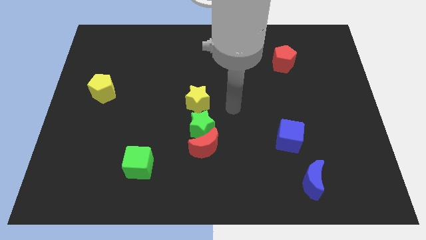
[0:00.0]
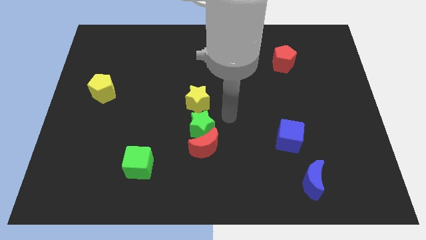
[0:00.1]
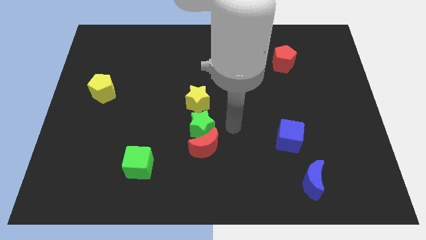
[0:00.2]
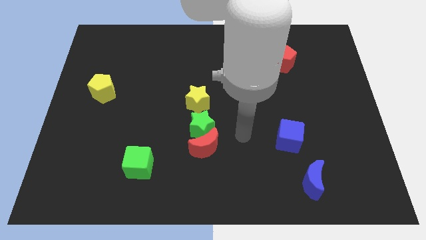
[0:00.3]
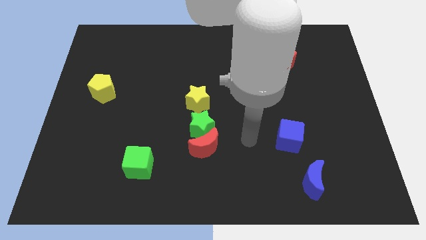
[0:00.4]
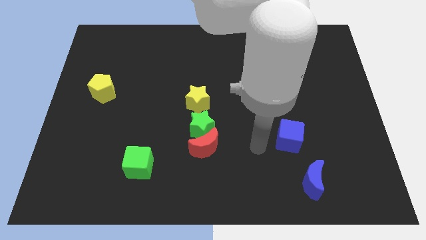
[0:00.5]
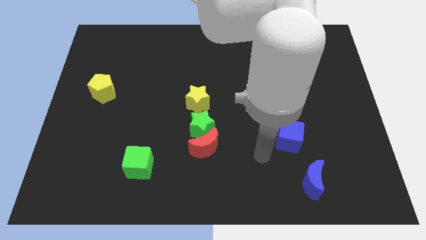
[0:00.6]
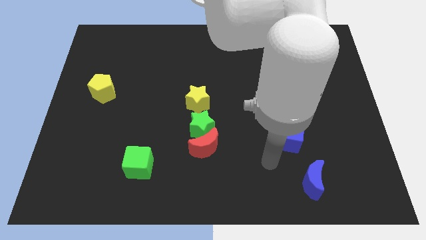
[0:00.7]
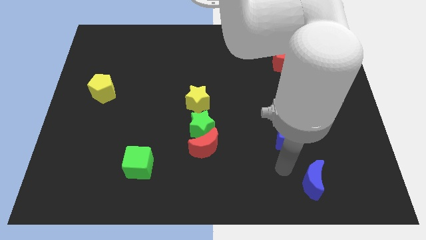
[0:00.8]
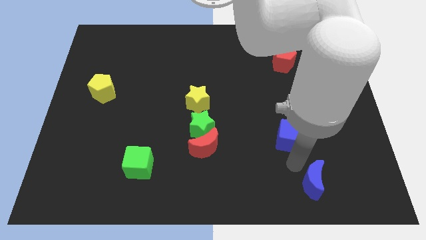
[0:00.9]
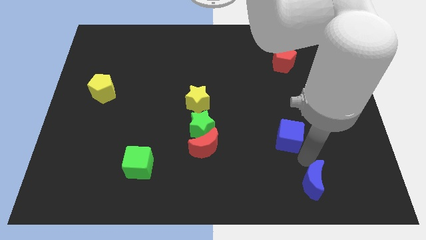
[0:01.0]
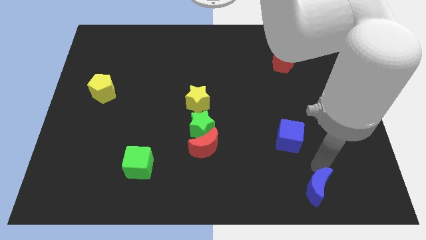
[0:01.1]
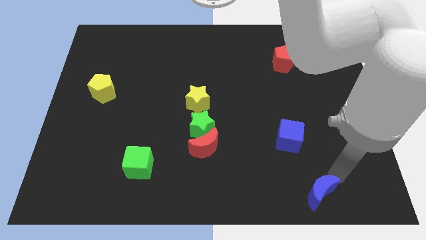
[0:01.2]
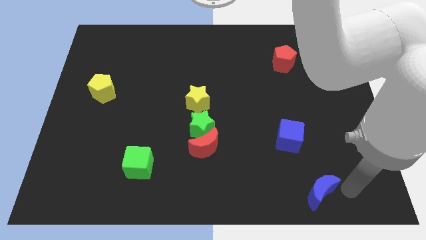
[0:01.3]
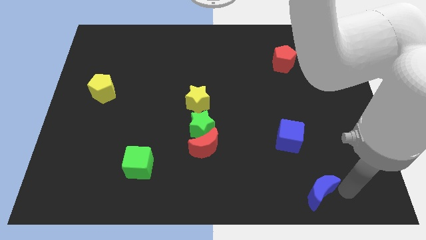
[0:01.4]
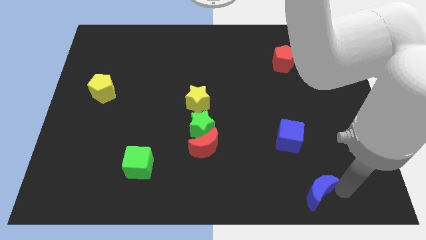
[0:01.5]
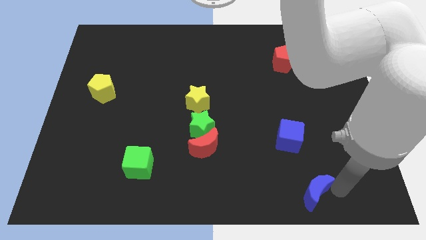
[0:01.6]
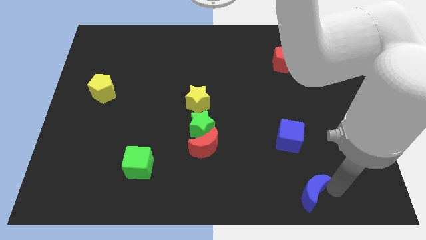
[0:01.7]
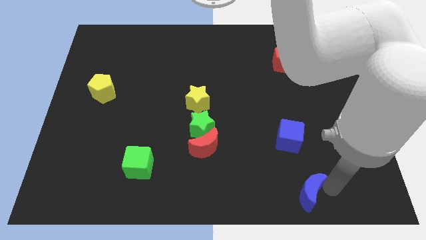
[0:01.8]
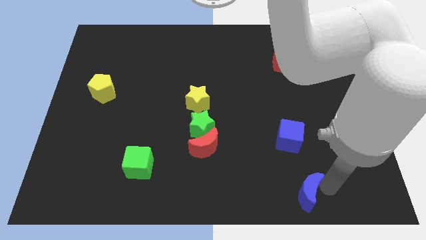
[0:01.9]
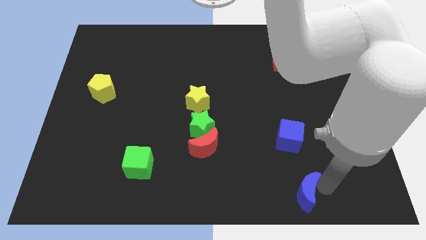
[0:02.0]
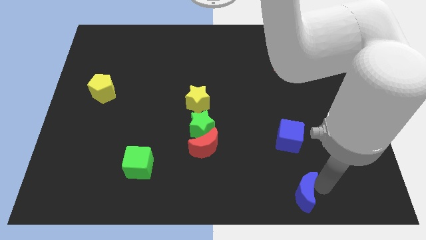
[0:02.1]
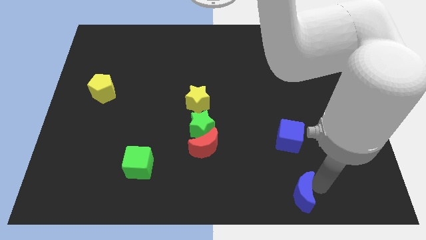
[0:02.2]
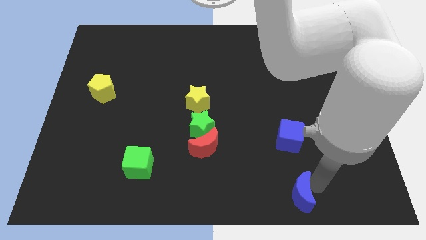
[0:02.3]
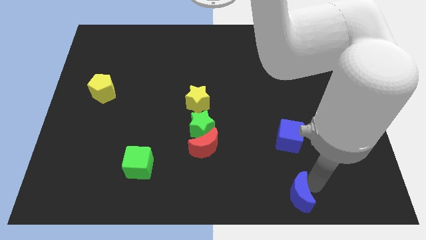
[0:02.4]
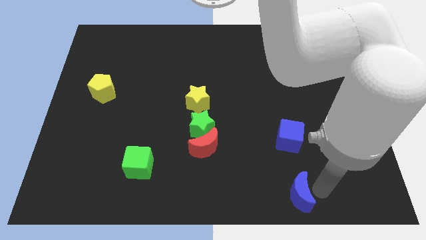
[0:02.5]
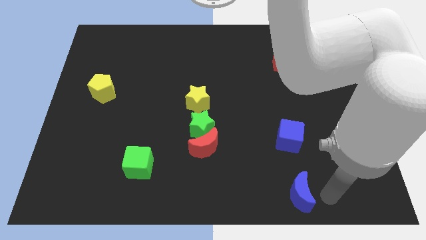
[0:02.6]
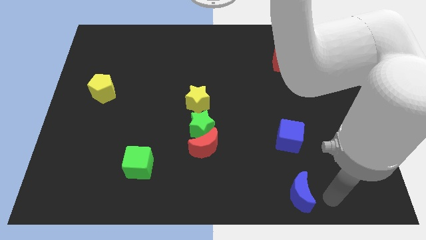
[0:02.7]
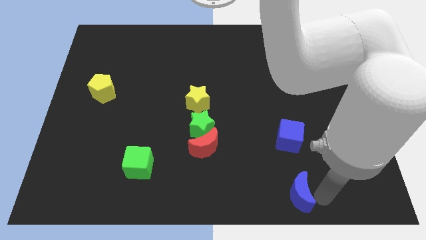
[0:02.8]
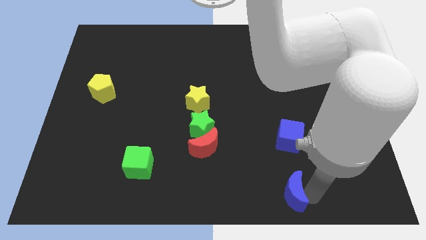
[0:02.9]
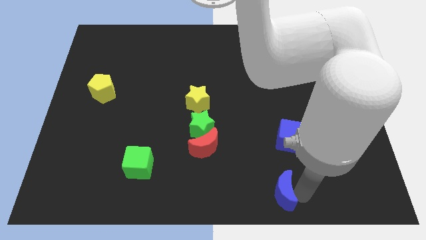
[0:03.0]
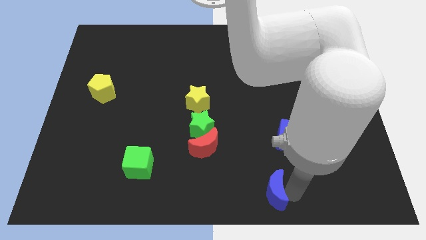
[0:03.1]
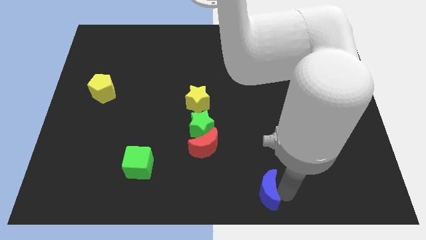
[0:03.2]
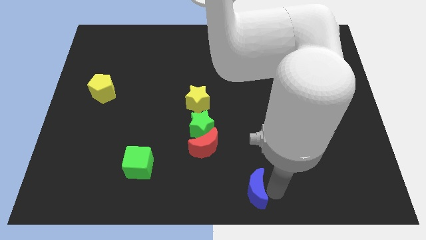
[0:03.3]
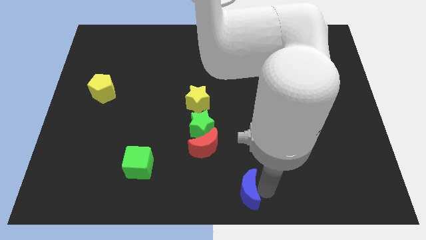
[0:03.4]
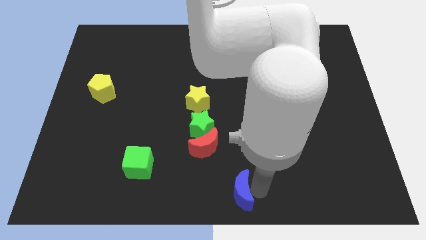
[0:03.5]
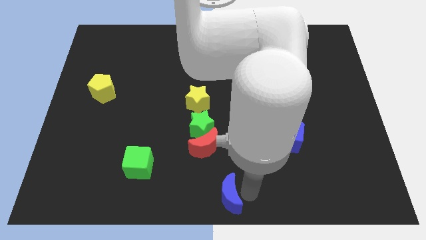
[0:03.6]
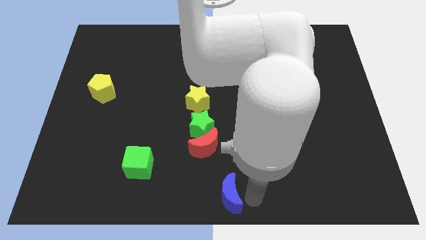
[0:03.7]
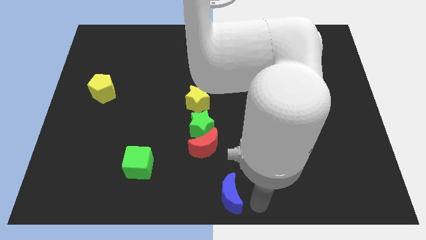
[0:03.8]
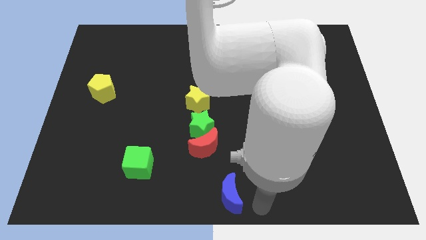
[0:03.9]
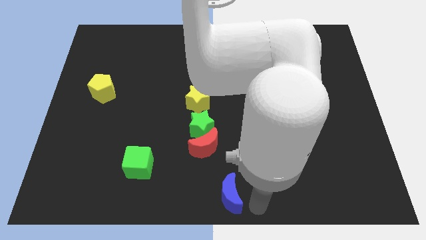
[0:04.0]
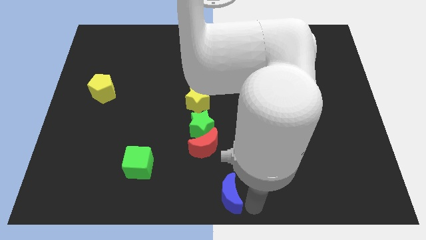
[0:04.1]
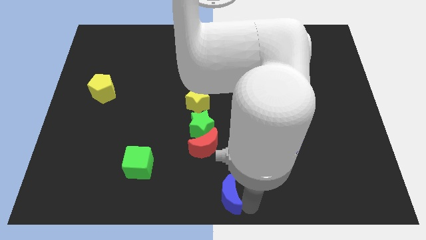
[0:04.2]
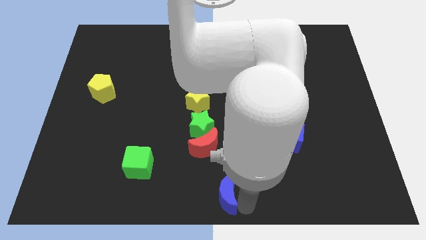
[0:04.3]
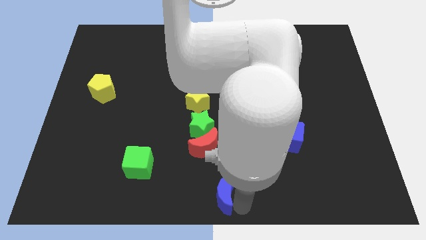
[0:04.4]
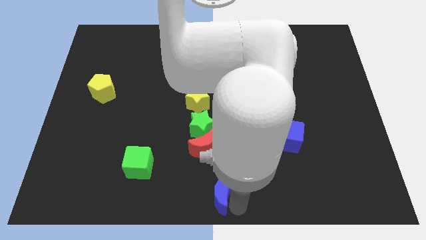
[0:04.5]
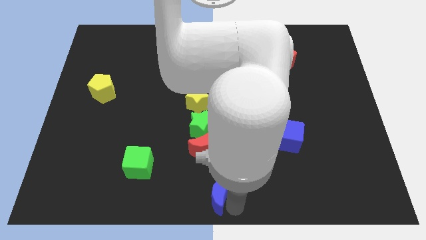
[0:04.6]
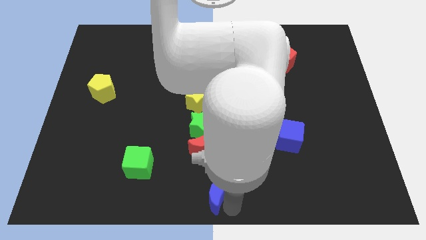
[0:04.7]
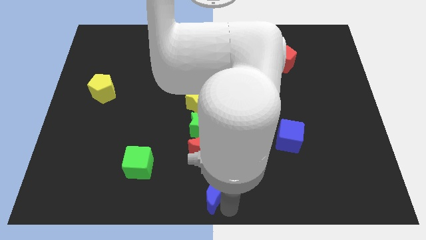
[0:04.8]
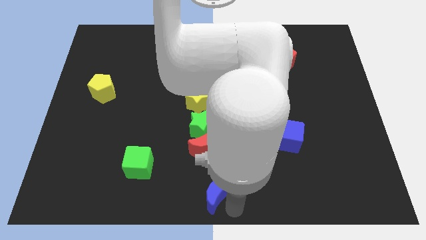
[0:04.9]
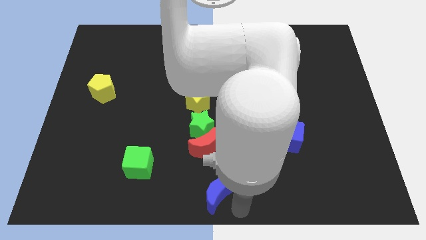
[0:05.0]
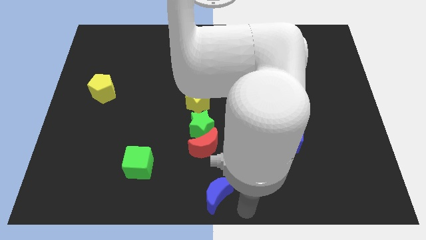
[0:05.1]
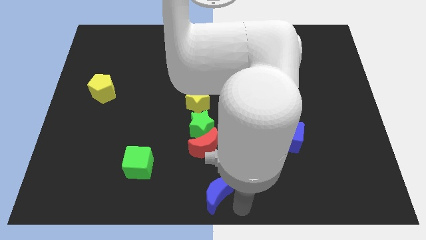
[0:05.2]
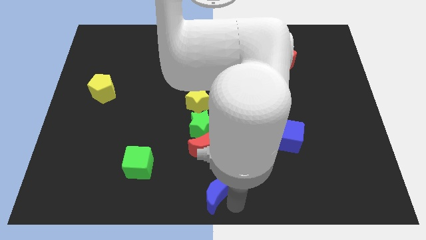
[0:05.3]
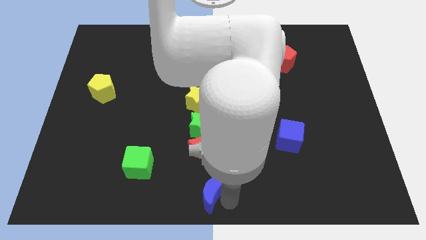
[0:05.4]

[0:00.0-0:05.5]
move the blue moon left

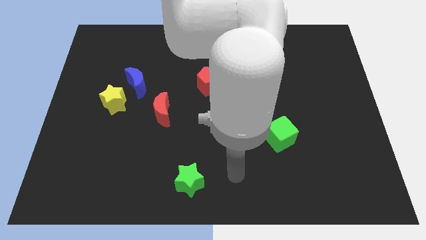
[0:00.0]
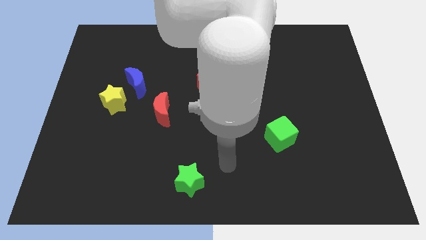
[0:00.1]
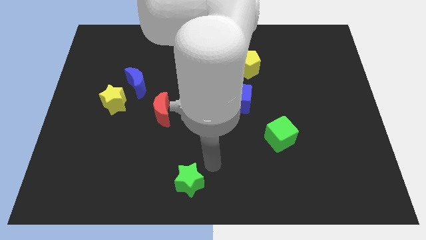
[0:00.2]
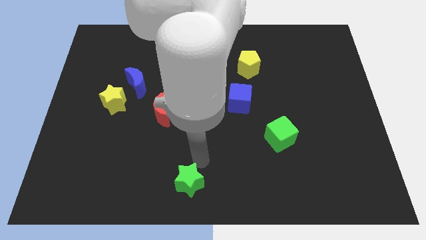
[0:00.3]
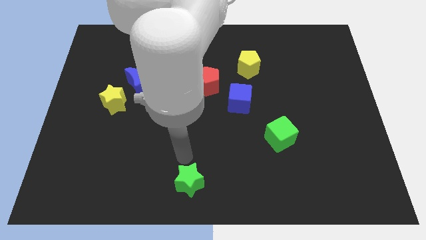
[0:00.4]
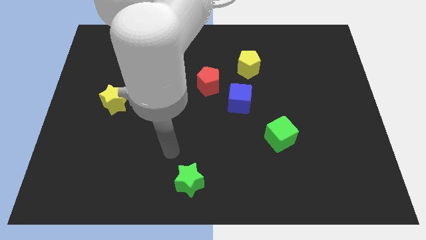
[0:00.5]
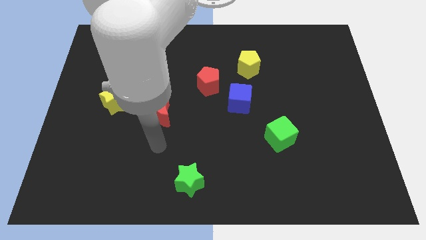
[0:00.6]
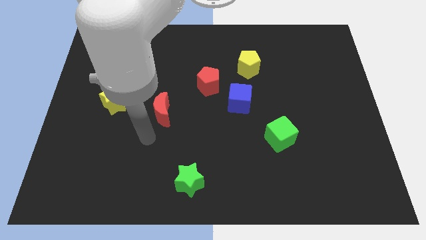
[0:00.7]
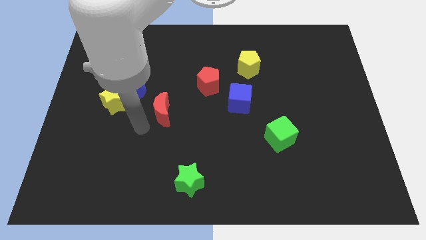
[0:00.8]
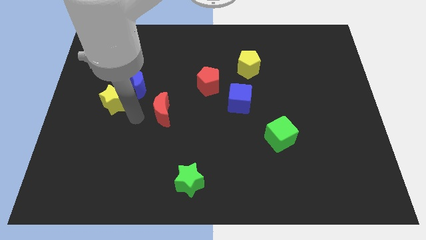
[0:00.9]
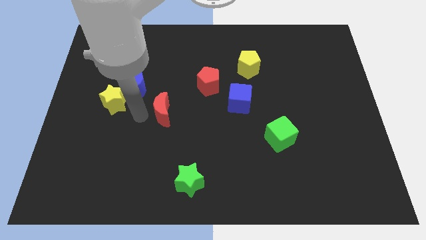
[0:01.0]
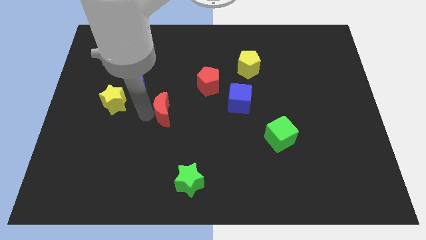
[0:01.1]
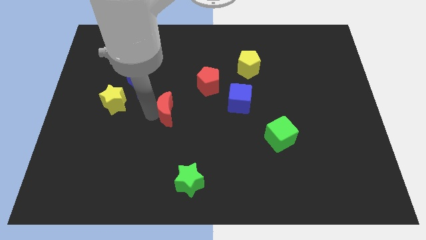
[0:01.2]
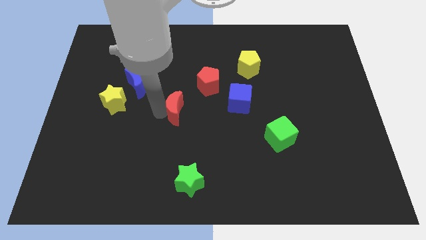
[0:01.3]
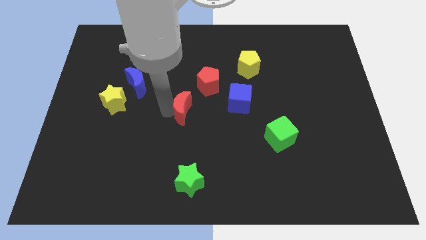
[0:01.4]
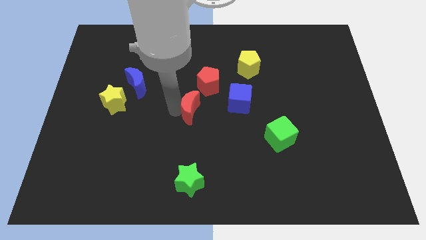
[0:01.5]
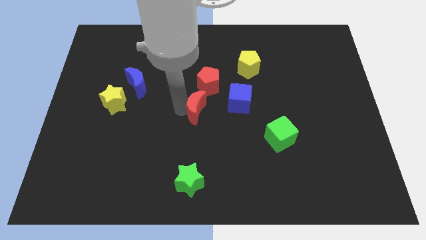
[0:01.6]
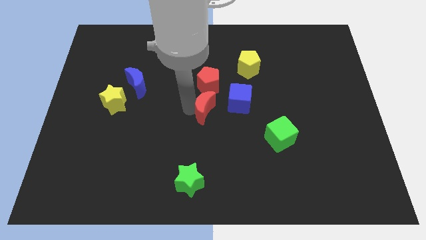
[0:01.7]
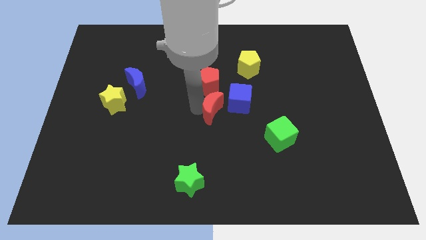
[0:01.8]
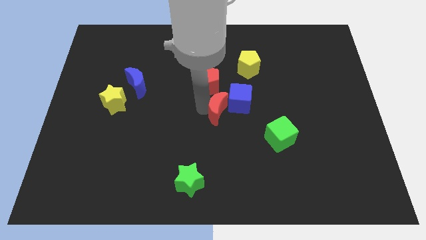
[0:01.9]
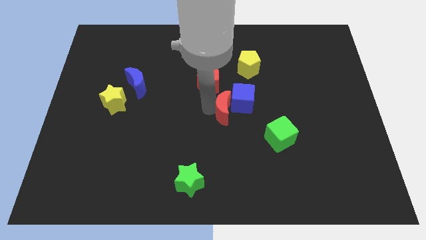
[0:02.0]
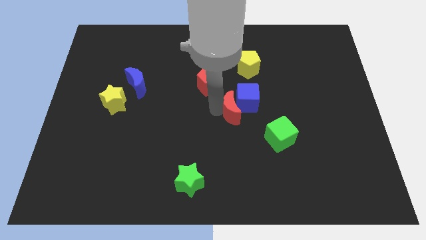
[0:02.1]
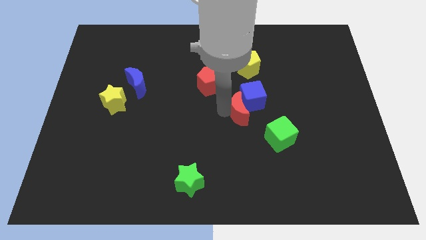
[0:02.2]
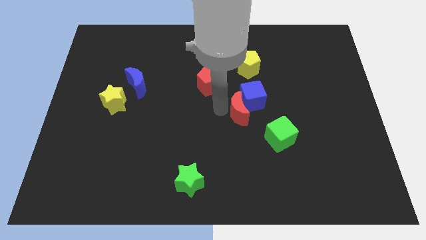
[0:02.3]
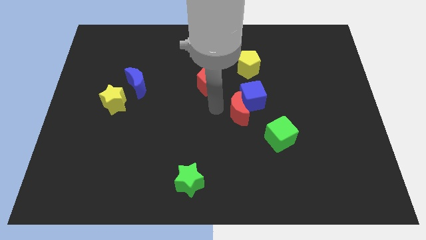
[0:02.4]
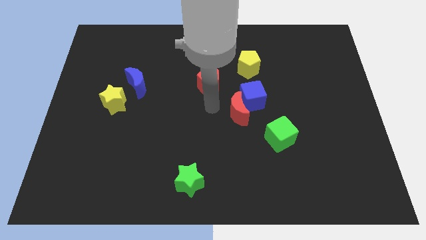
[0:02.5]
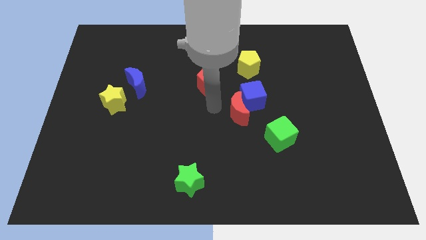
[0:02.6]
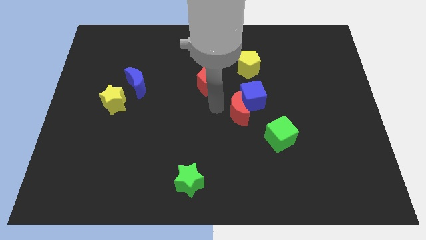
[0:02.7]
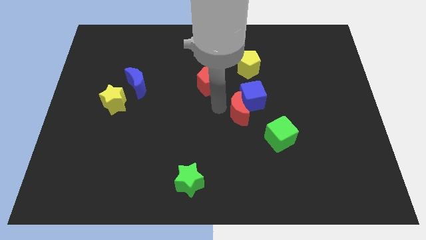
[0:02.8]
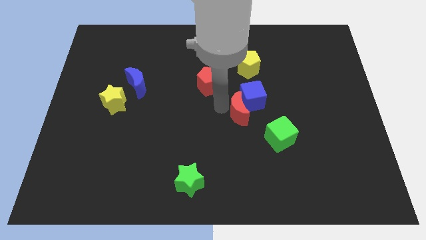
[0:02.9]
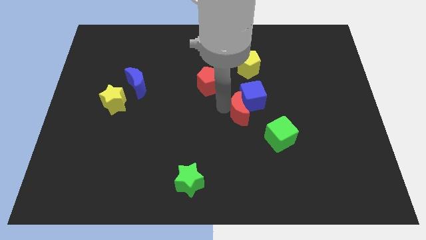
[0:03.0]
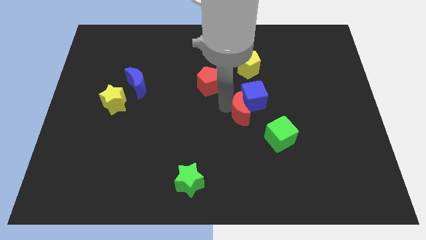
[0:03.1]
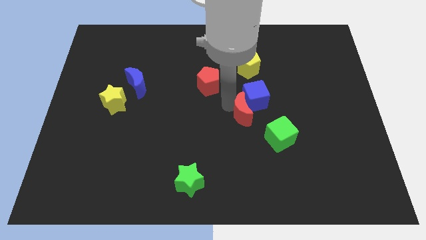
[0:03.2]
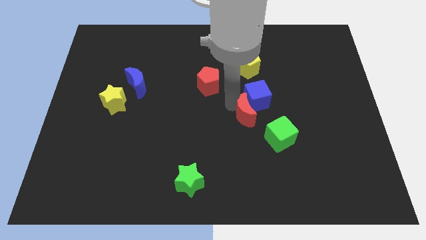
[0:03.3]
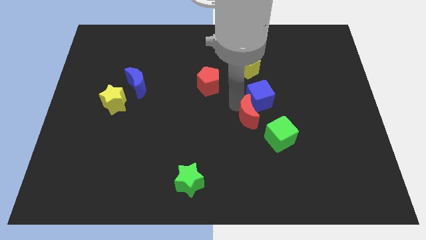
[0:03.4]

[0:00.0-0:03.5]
push the red moon to the right
